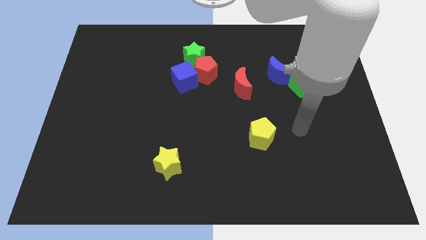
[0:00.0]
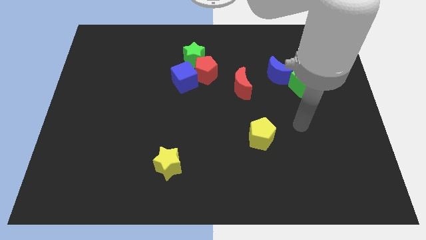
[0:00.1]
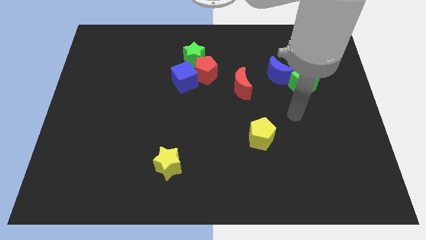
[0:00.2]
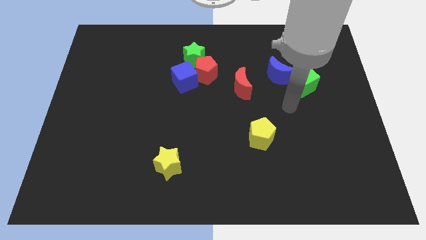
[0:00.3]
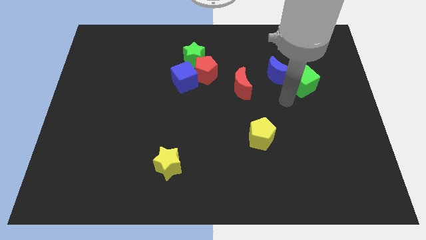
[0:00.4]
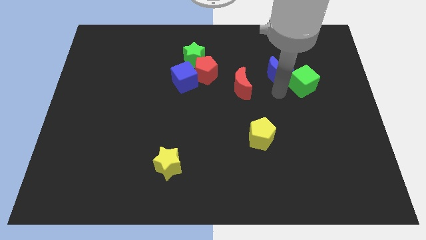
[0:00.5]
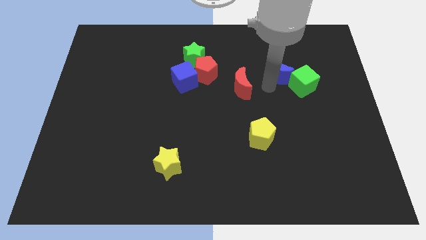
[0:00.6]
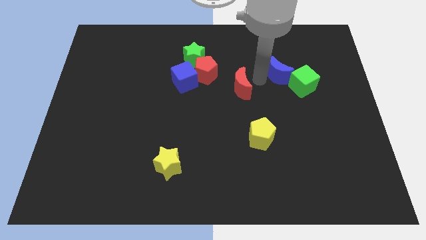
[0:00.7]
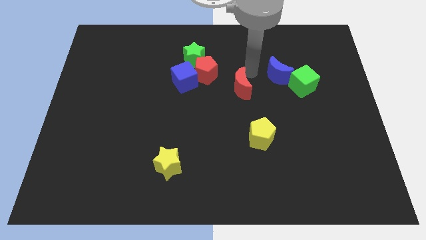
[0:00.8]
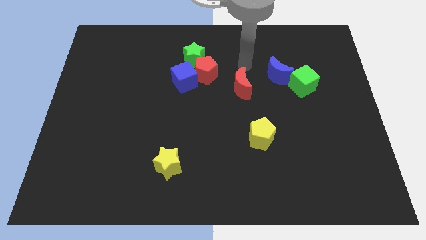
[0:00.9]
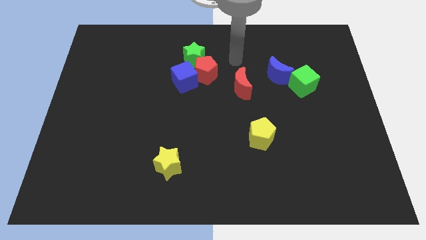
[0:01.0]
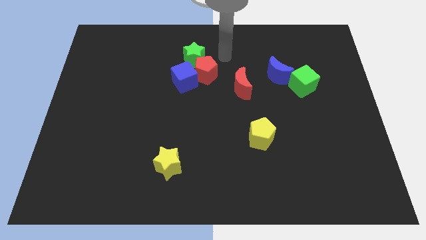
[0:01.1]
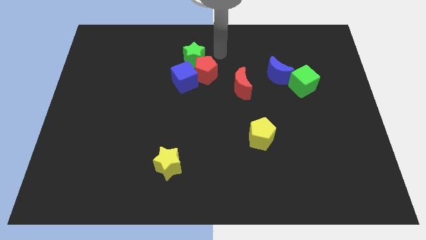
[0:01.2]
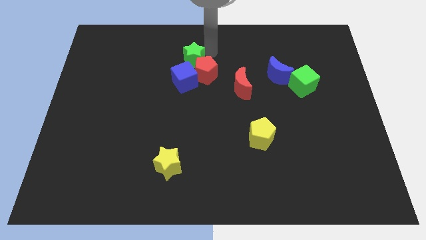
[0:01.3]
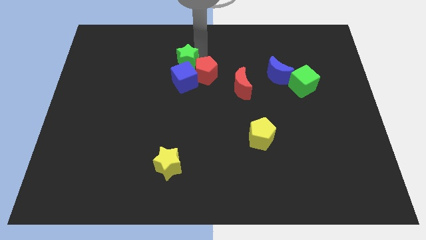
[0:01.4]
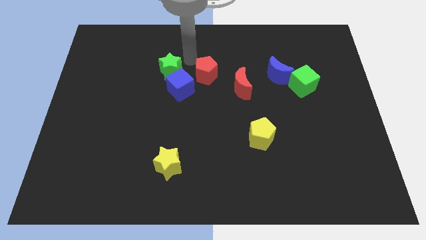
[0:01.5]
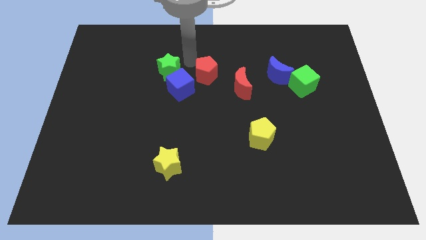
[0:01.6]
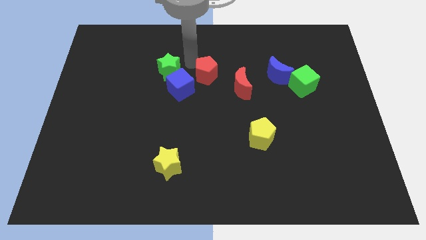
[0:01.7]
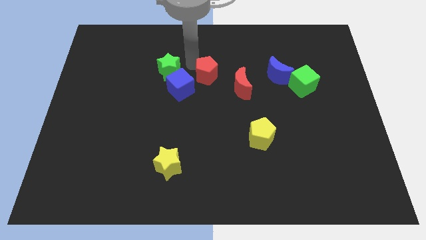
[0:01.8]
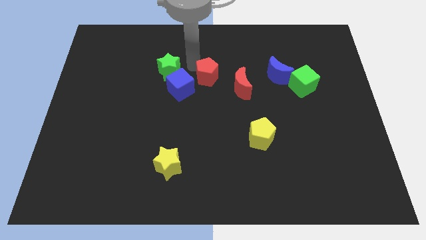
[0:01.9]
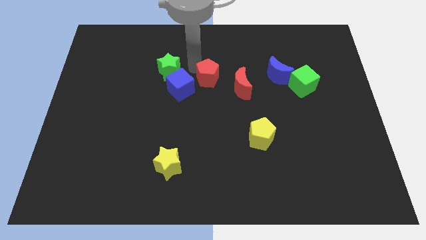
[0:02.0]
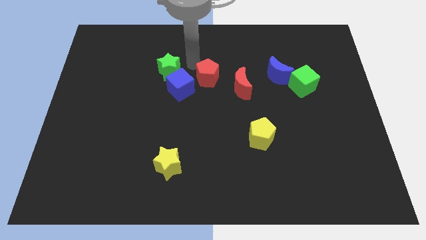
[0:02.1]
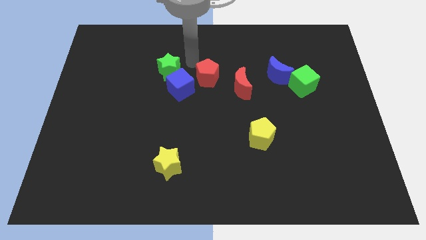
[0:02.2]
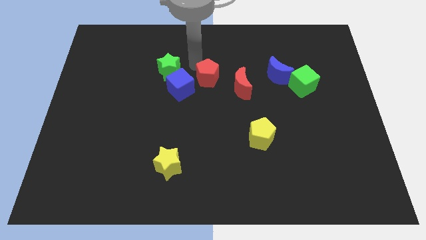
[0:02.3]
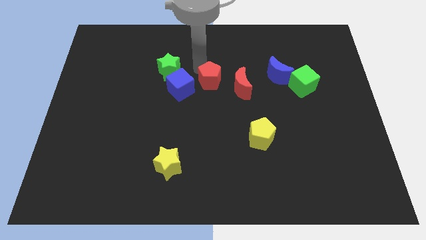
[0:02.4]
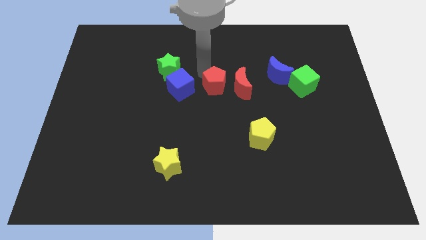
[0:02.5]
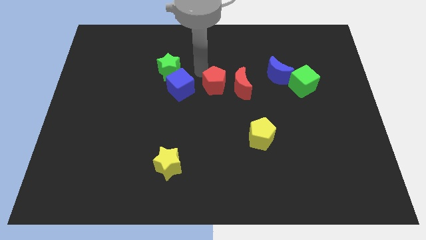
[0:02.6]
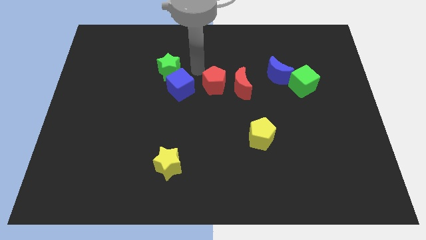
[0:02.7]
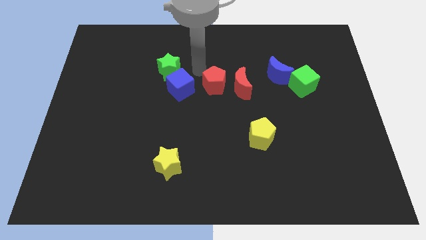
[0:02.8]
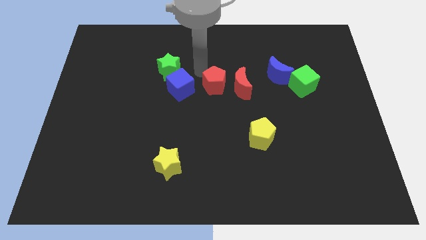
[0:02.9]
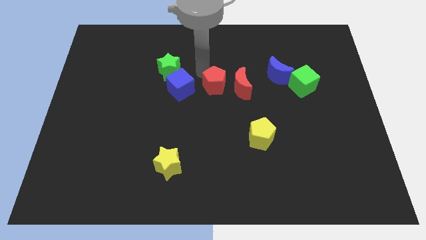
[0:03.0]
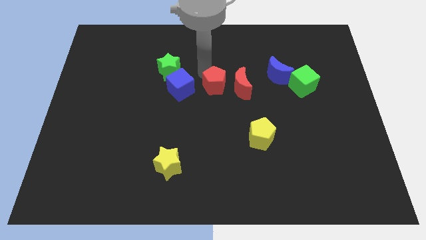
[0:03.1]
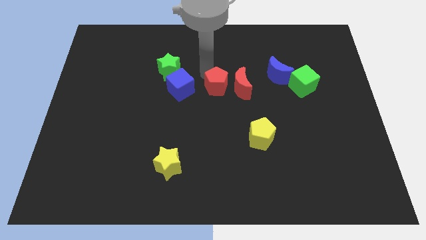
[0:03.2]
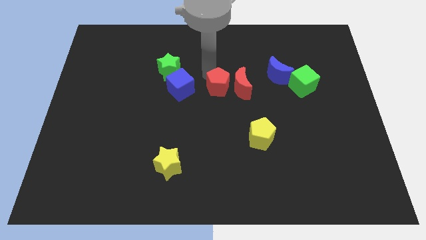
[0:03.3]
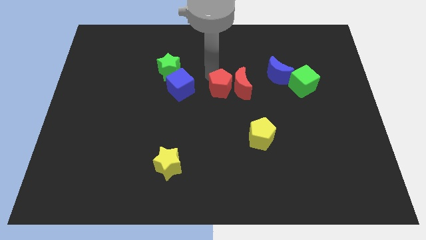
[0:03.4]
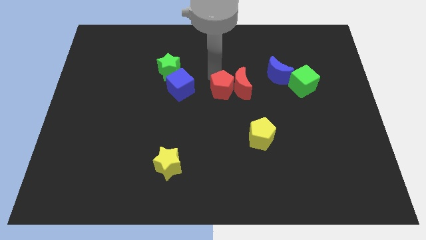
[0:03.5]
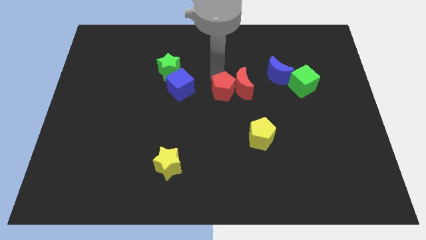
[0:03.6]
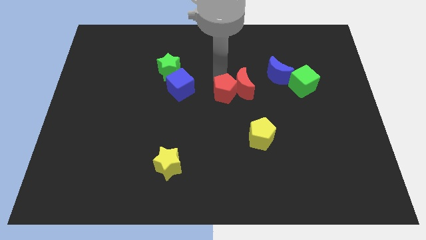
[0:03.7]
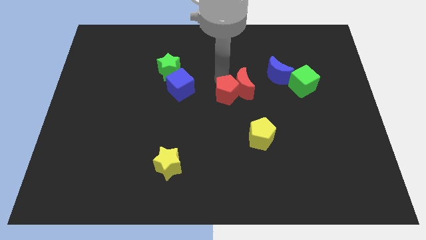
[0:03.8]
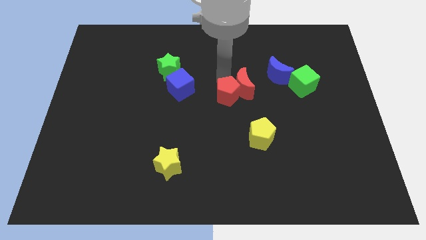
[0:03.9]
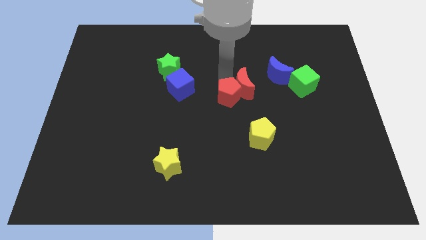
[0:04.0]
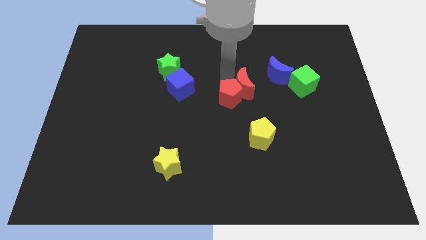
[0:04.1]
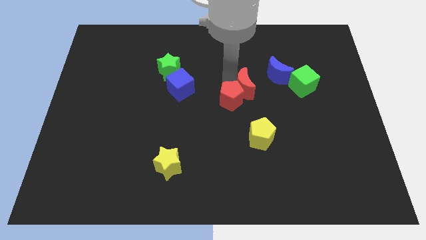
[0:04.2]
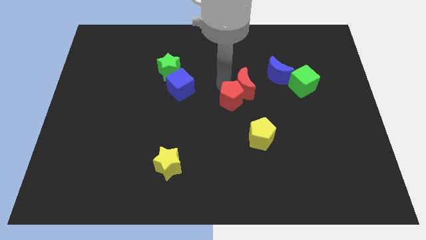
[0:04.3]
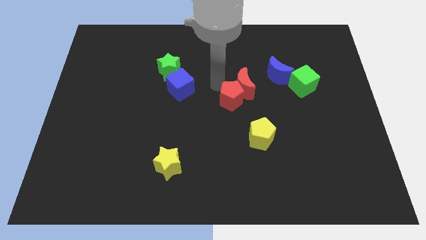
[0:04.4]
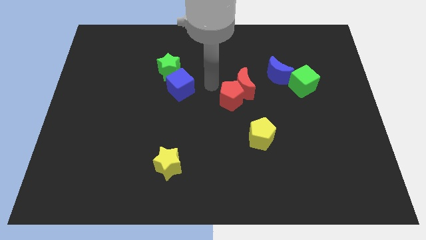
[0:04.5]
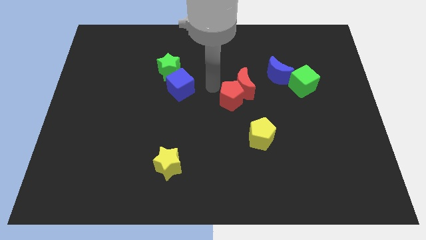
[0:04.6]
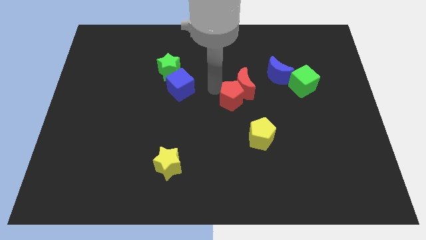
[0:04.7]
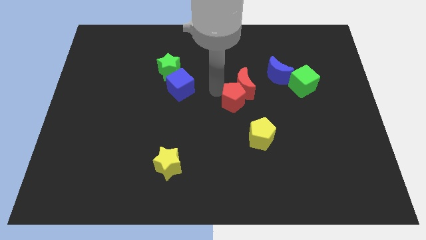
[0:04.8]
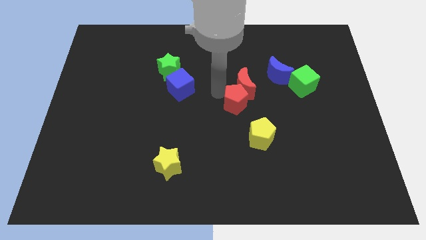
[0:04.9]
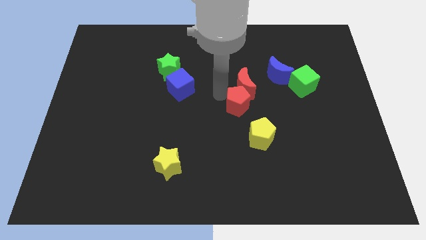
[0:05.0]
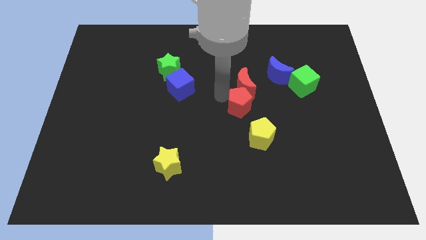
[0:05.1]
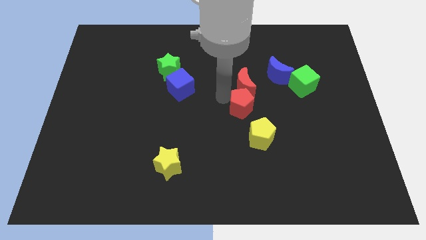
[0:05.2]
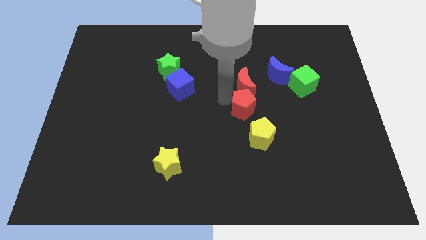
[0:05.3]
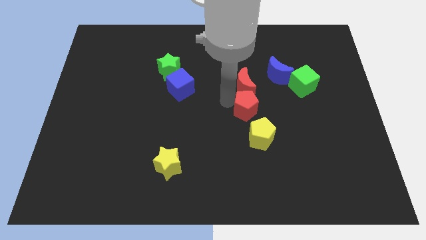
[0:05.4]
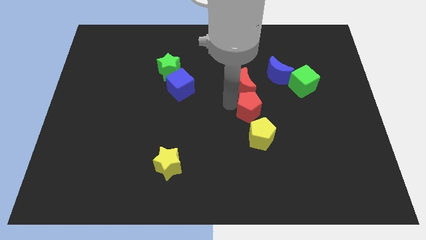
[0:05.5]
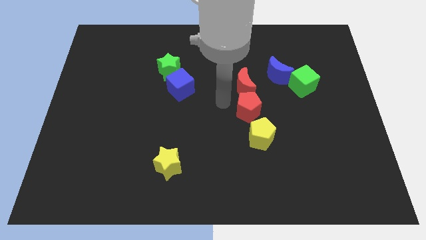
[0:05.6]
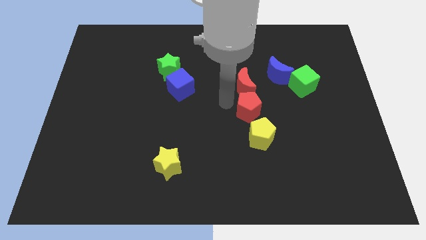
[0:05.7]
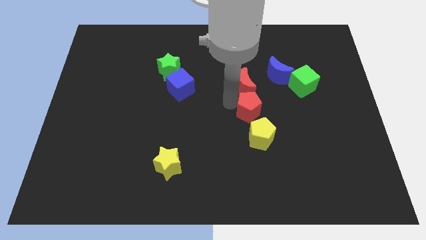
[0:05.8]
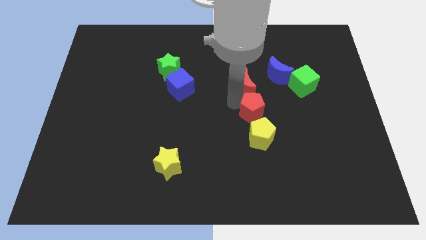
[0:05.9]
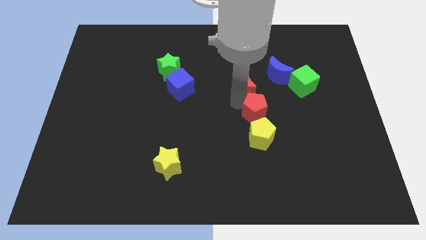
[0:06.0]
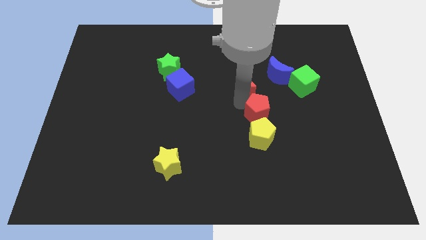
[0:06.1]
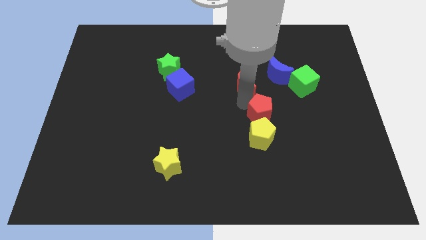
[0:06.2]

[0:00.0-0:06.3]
move the red pentagon to the top right of the yellow pentagon

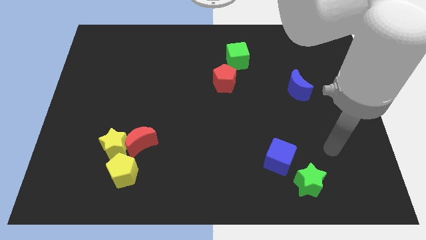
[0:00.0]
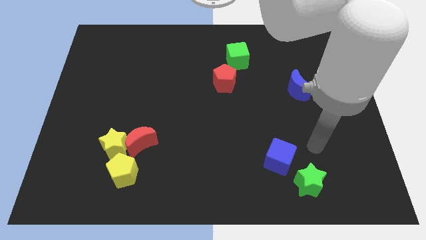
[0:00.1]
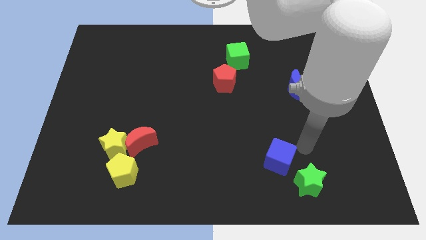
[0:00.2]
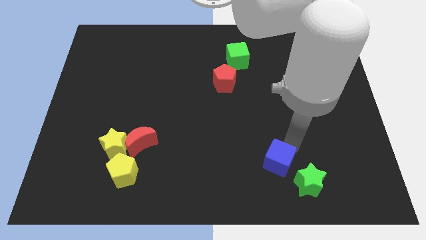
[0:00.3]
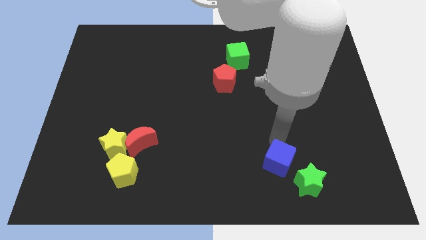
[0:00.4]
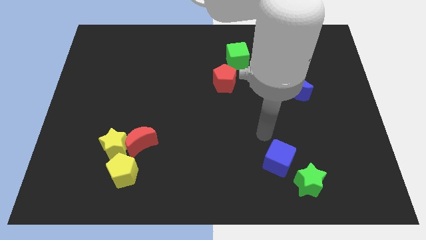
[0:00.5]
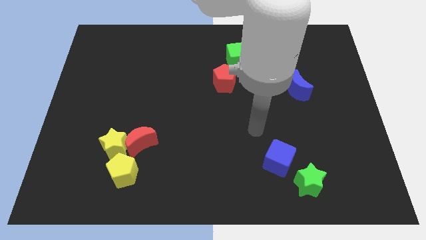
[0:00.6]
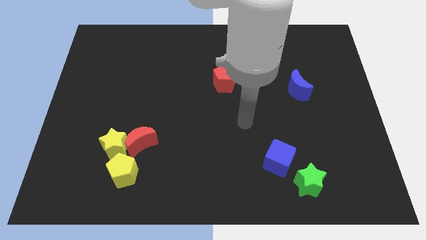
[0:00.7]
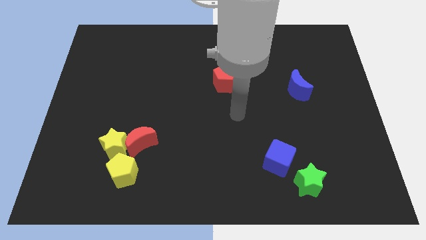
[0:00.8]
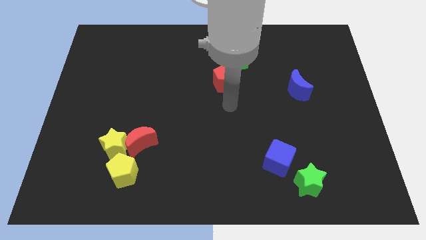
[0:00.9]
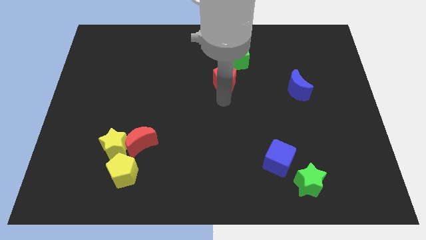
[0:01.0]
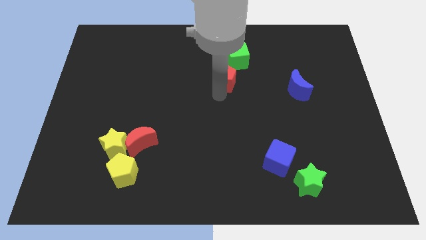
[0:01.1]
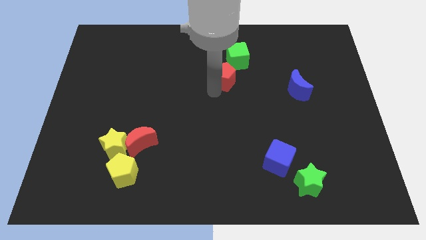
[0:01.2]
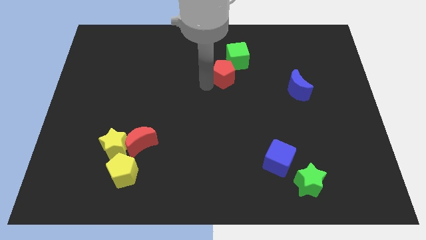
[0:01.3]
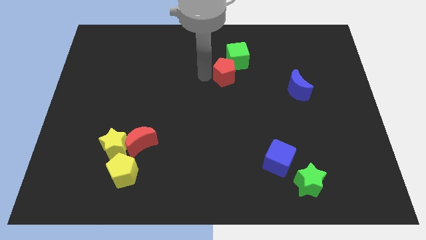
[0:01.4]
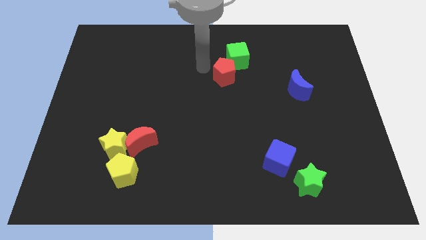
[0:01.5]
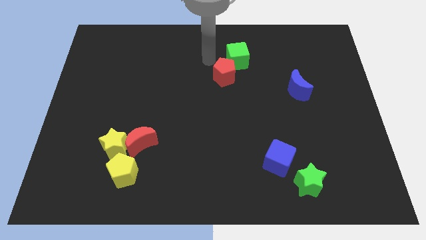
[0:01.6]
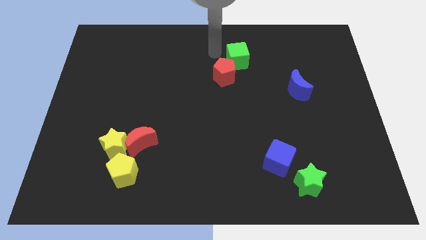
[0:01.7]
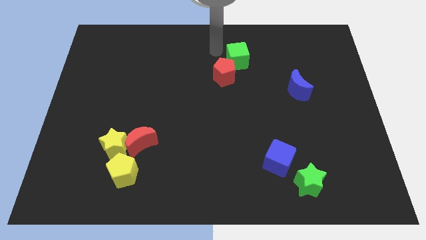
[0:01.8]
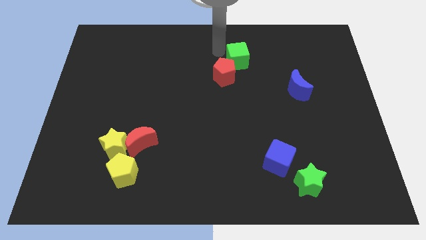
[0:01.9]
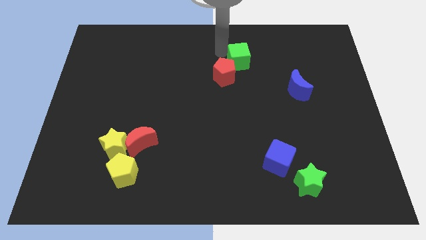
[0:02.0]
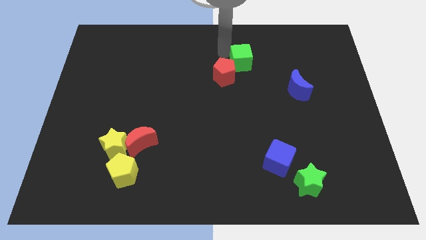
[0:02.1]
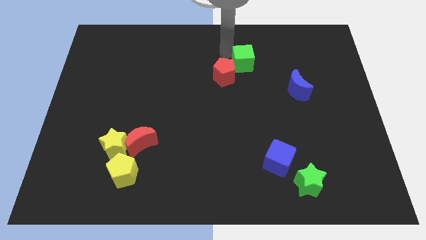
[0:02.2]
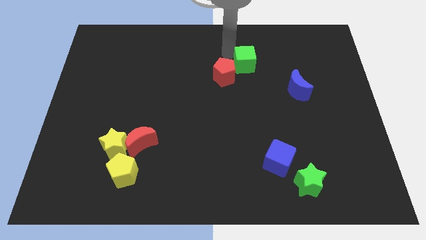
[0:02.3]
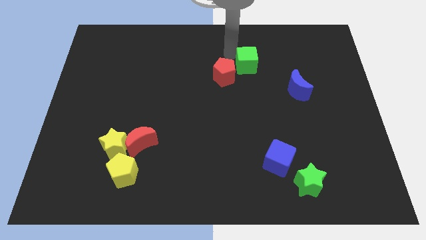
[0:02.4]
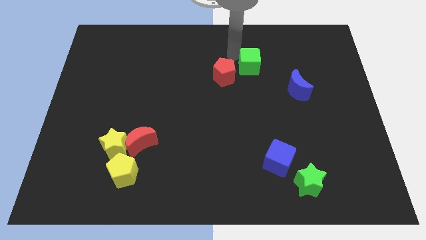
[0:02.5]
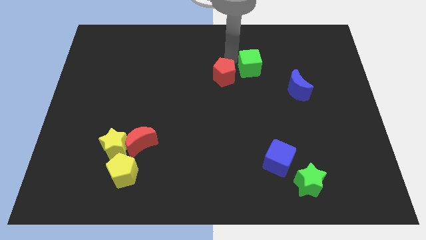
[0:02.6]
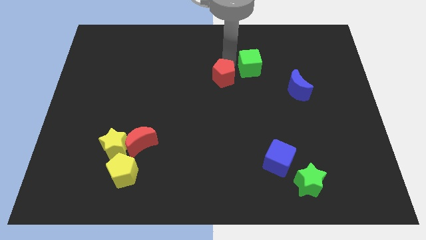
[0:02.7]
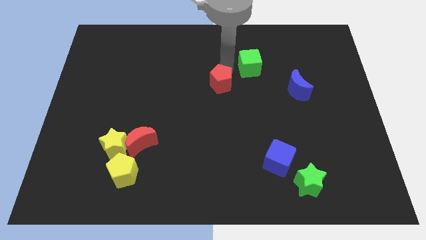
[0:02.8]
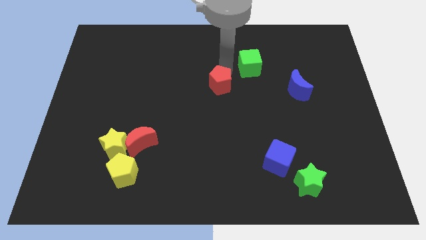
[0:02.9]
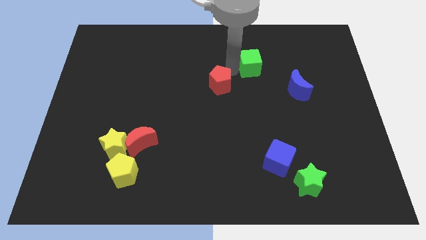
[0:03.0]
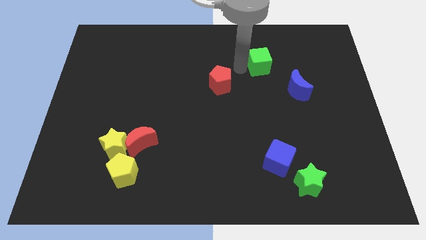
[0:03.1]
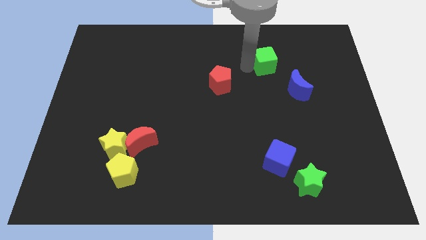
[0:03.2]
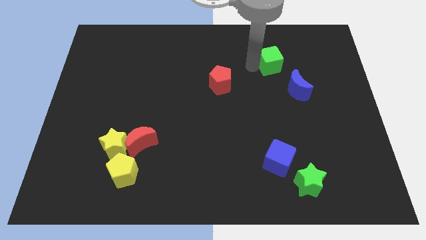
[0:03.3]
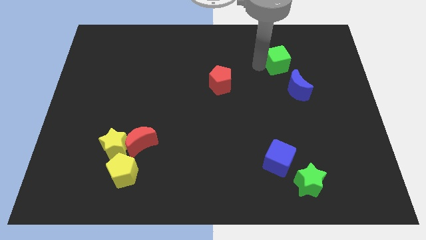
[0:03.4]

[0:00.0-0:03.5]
move the green cube above the blue moon
